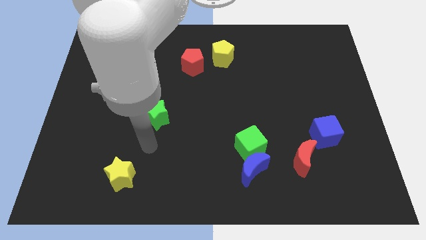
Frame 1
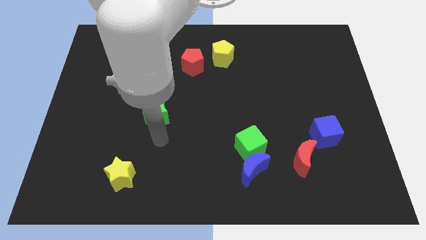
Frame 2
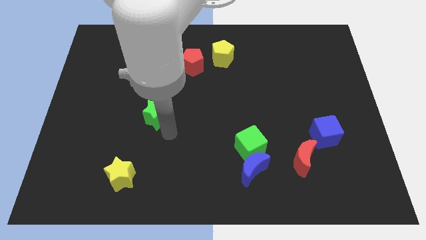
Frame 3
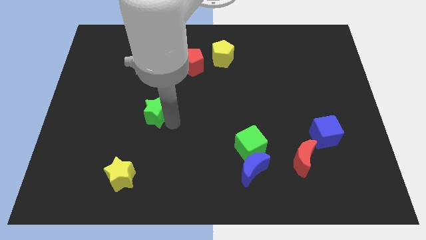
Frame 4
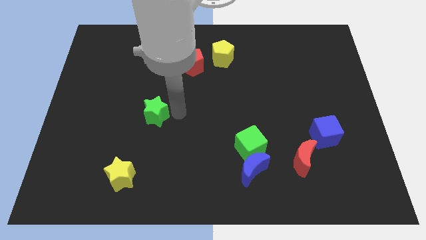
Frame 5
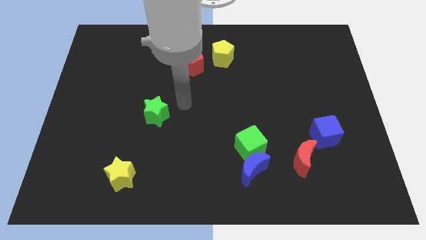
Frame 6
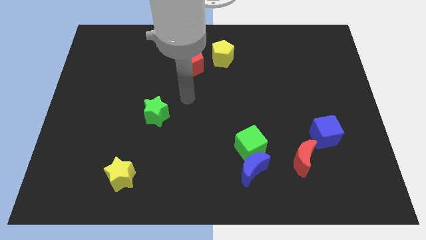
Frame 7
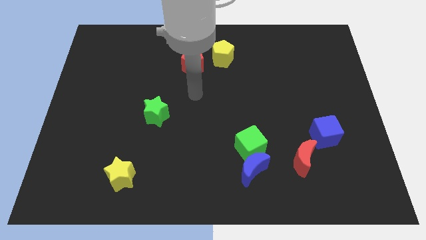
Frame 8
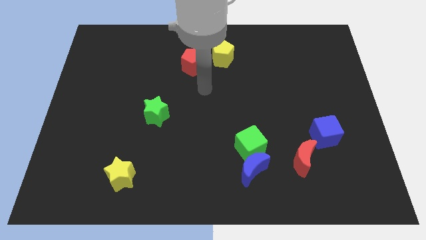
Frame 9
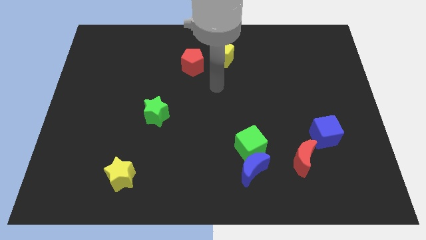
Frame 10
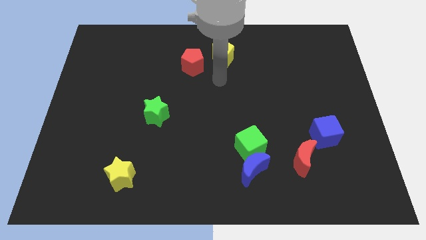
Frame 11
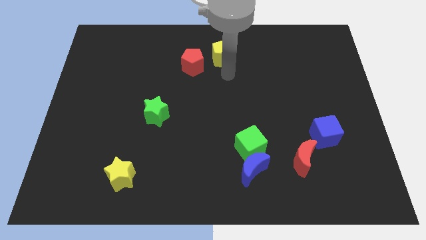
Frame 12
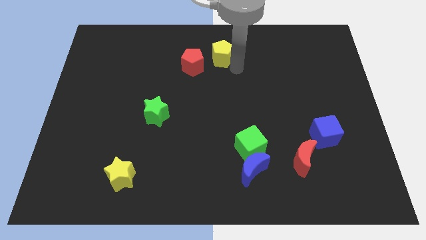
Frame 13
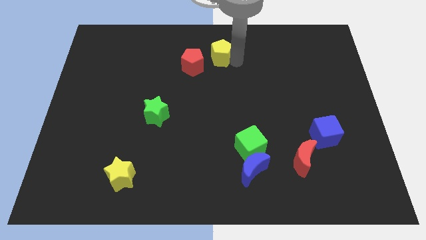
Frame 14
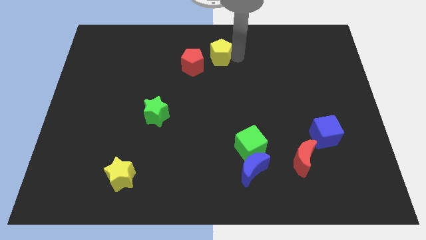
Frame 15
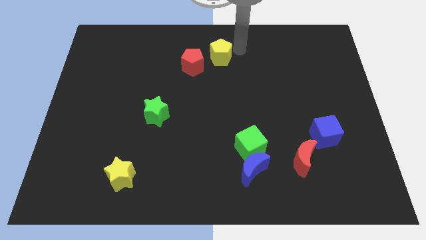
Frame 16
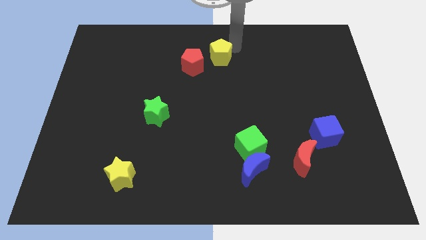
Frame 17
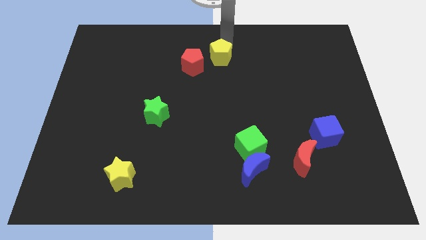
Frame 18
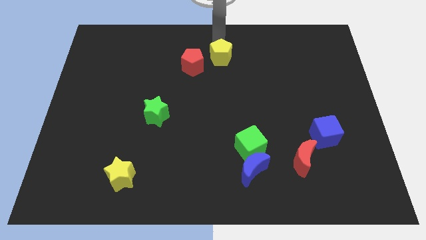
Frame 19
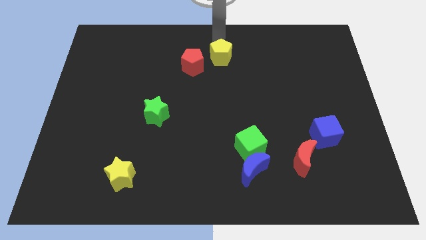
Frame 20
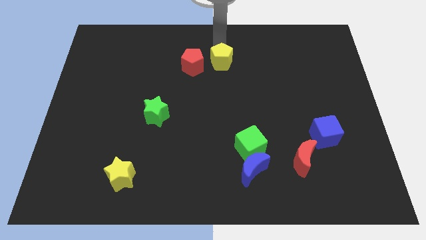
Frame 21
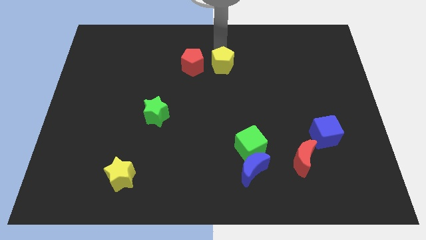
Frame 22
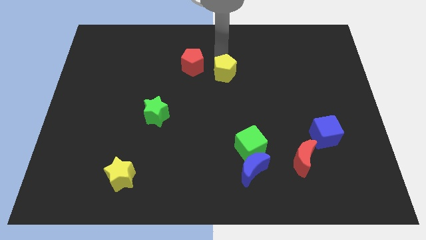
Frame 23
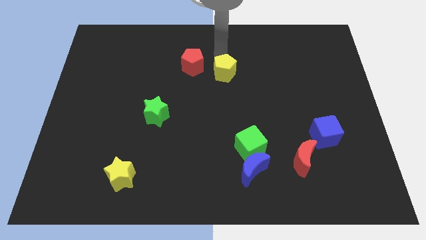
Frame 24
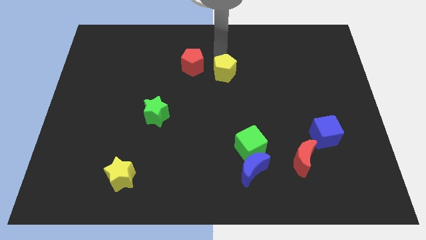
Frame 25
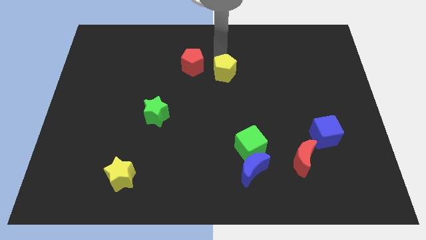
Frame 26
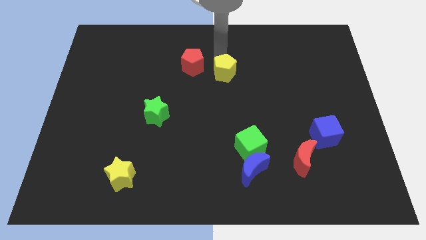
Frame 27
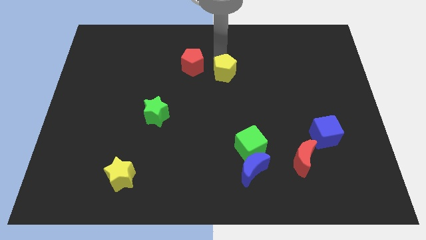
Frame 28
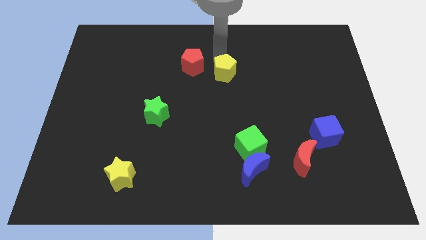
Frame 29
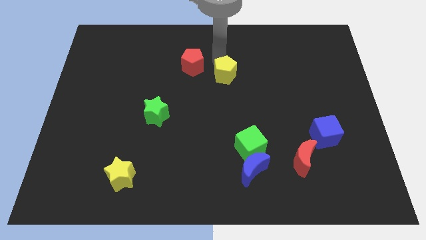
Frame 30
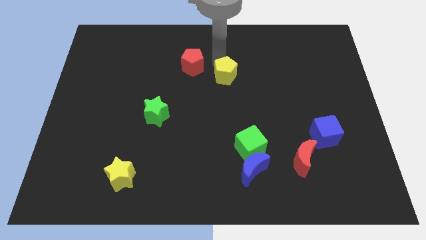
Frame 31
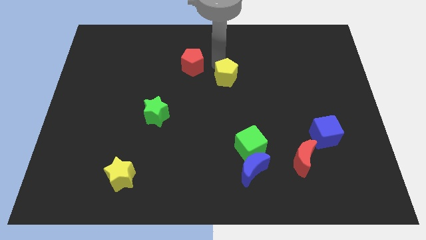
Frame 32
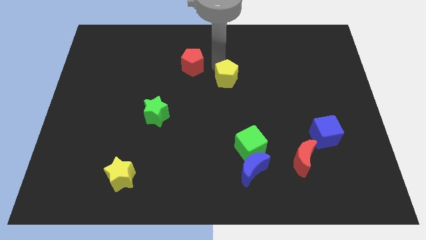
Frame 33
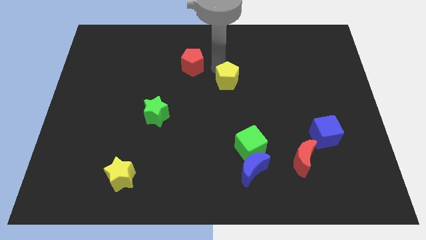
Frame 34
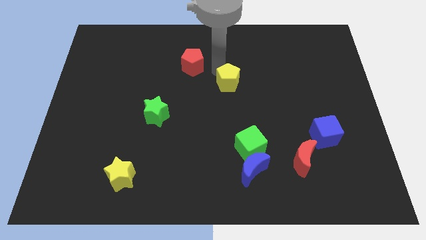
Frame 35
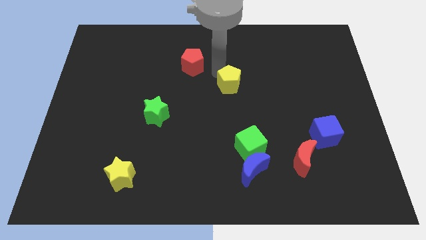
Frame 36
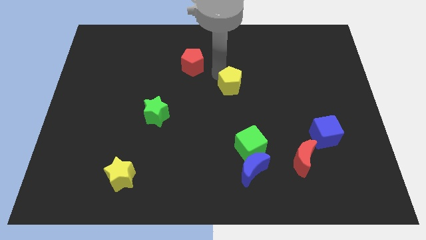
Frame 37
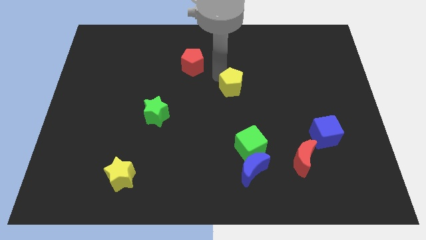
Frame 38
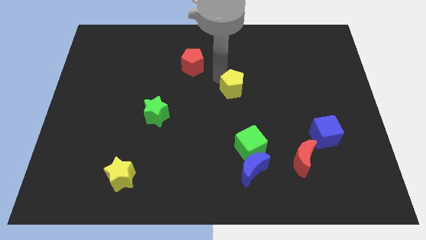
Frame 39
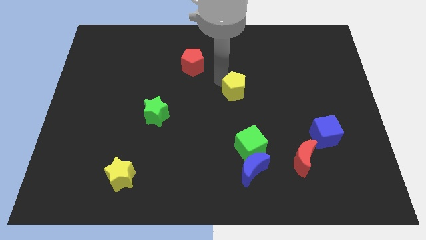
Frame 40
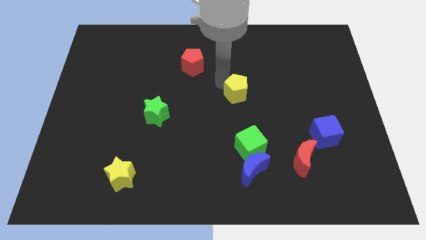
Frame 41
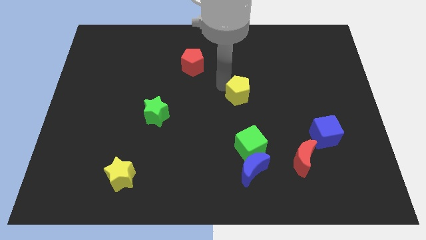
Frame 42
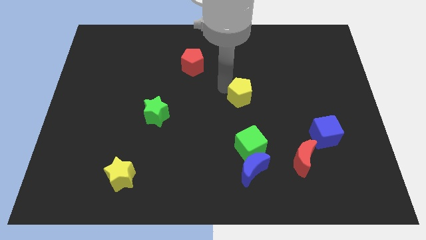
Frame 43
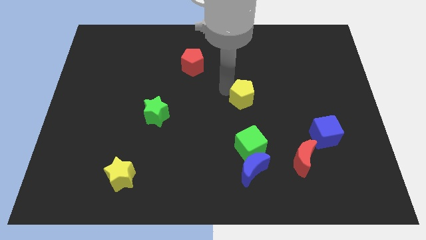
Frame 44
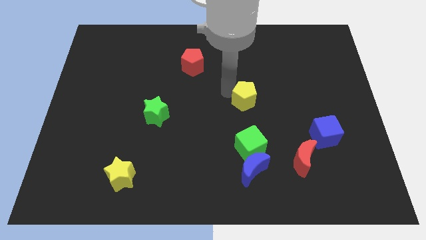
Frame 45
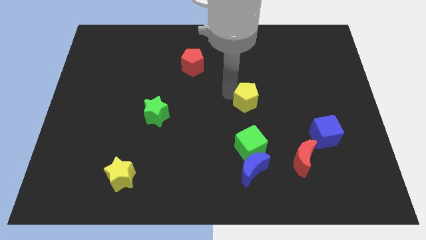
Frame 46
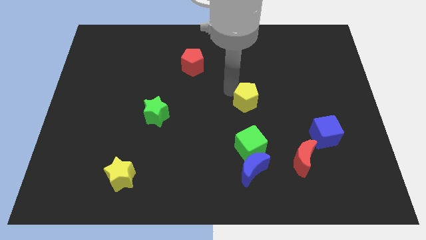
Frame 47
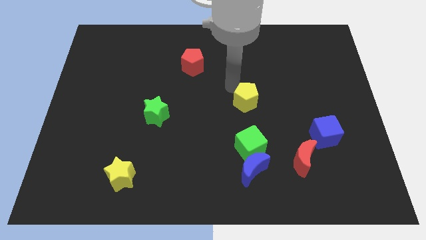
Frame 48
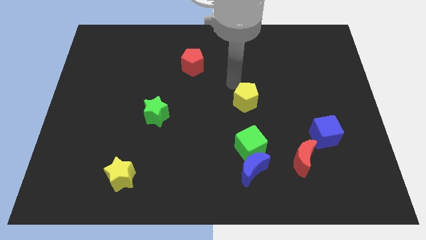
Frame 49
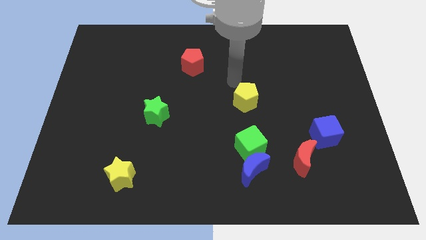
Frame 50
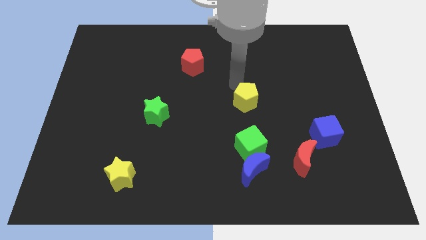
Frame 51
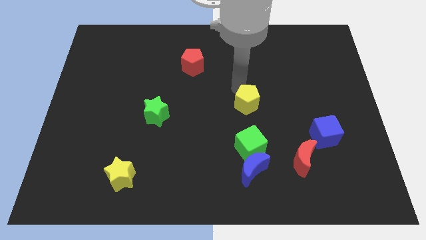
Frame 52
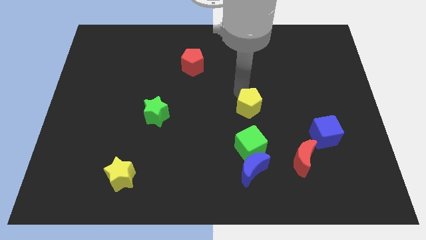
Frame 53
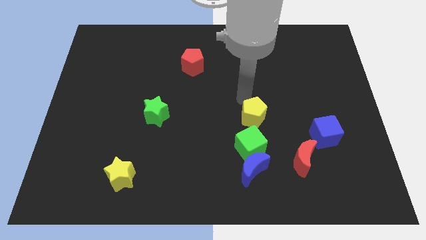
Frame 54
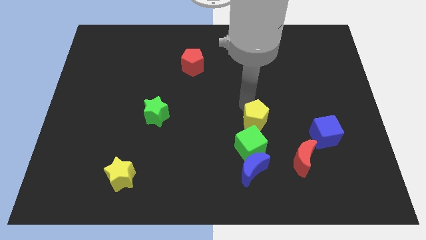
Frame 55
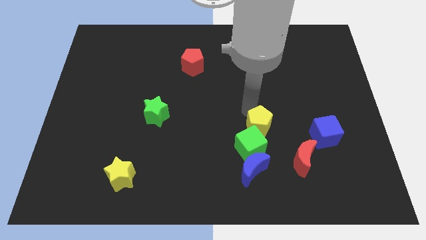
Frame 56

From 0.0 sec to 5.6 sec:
slide the yellow pentagon left of the blue cube

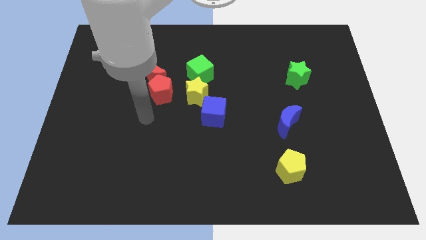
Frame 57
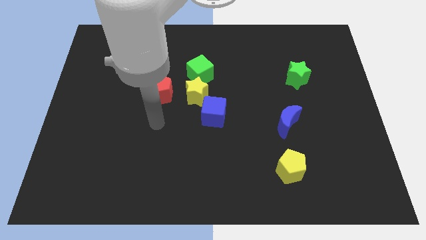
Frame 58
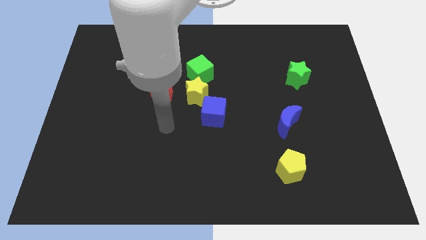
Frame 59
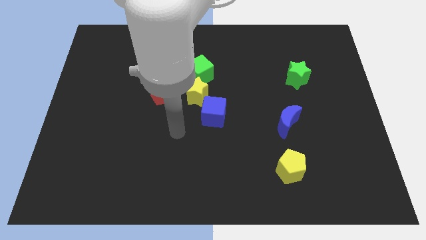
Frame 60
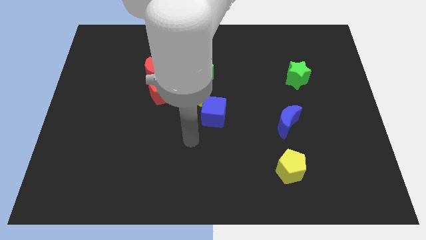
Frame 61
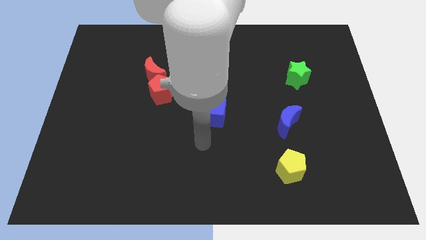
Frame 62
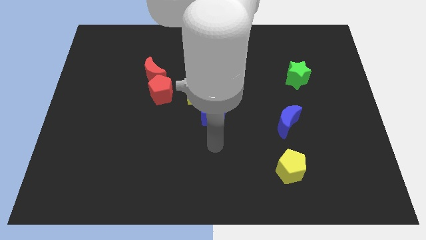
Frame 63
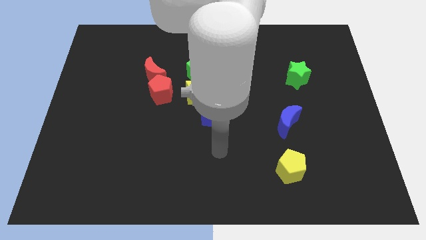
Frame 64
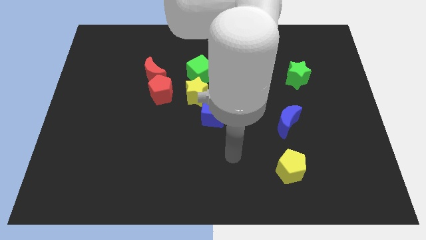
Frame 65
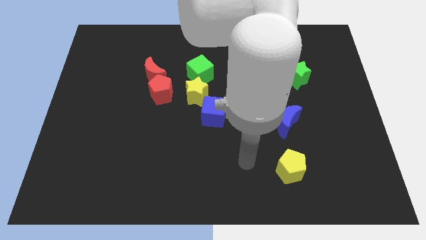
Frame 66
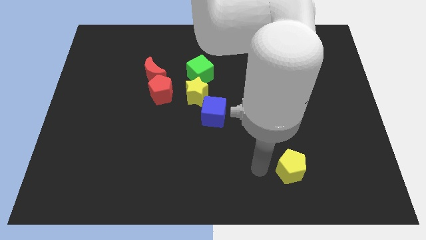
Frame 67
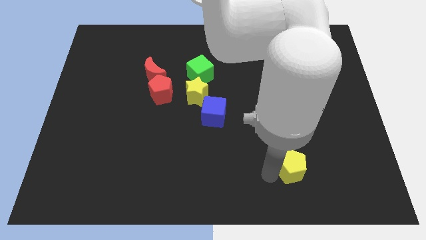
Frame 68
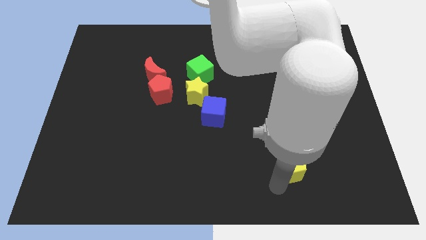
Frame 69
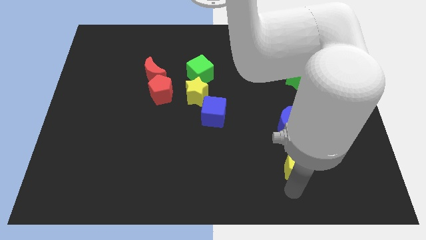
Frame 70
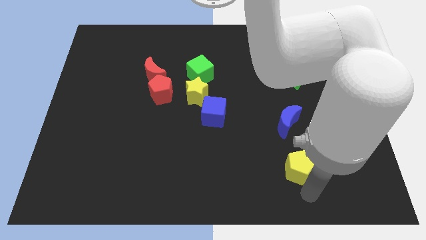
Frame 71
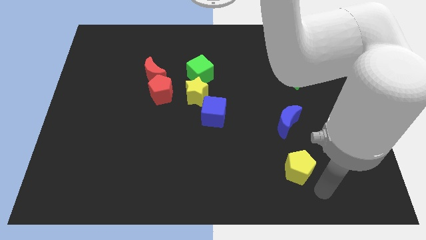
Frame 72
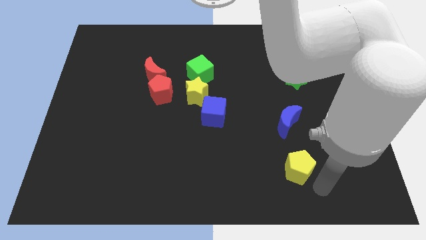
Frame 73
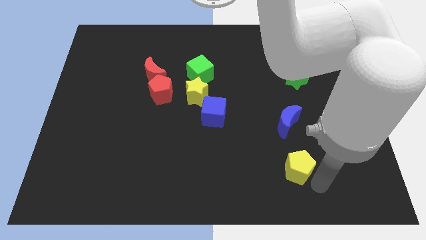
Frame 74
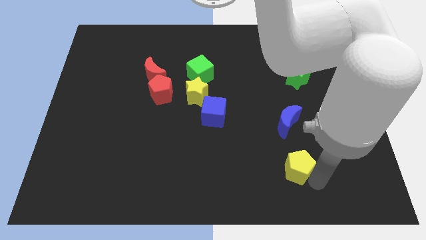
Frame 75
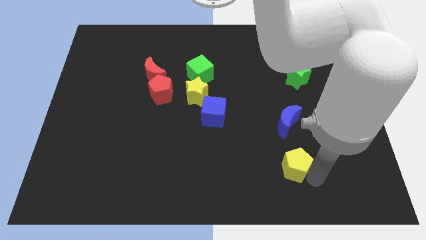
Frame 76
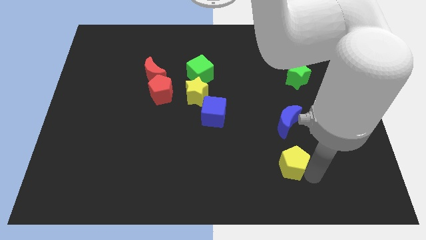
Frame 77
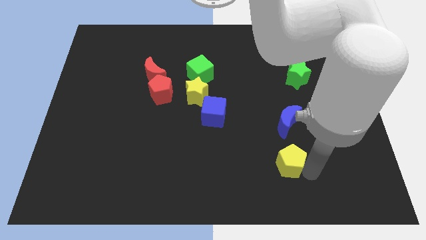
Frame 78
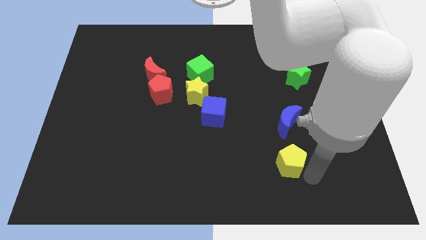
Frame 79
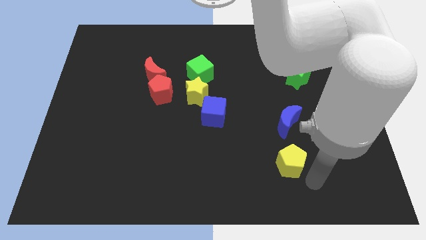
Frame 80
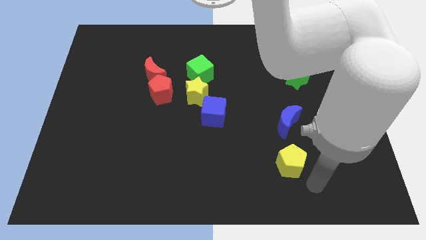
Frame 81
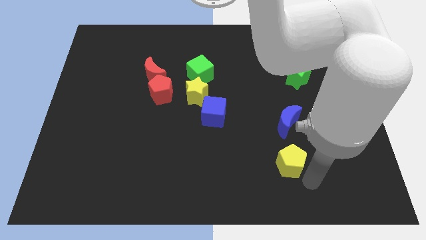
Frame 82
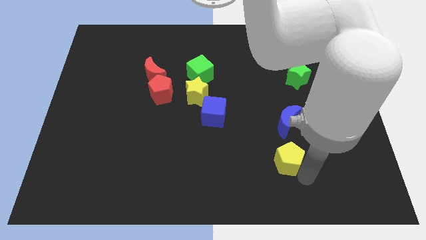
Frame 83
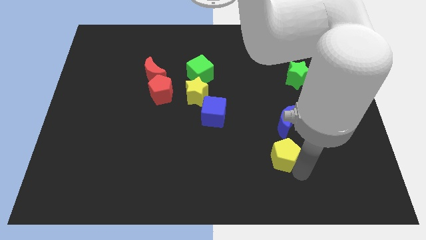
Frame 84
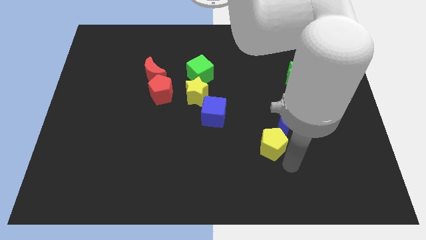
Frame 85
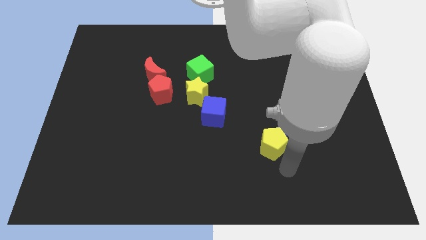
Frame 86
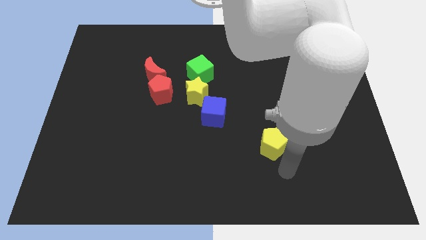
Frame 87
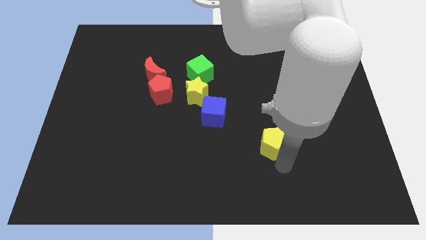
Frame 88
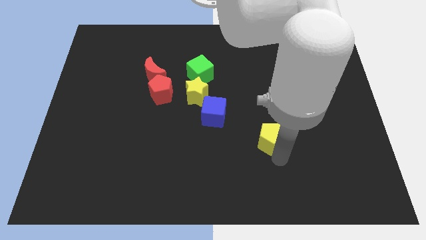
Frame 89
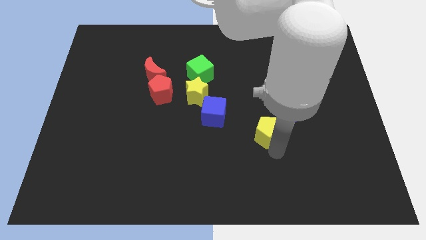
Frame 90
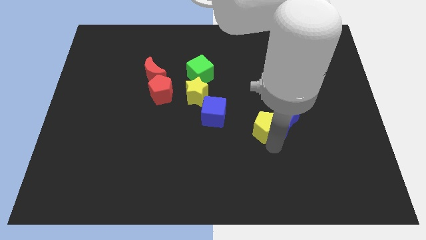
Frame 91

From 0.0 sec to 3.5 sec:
move the yellow pentagon to the top left side of the blue moon
